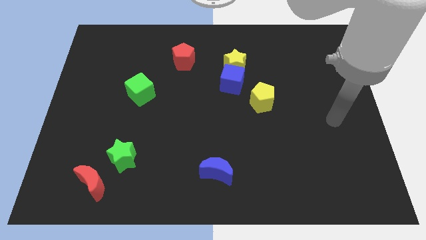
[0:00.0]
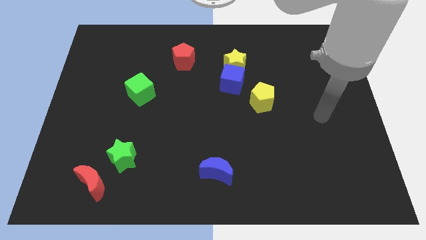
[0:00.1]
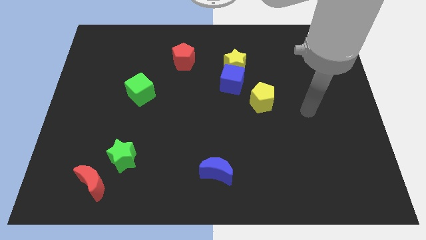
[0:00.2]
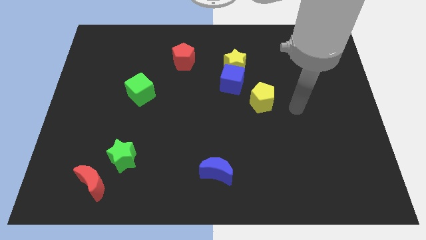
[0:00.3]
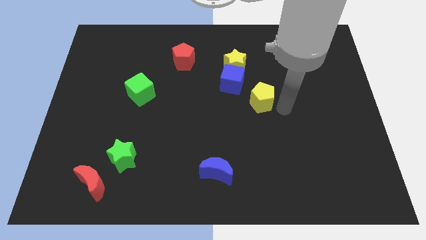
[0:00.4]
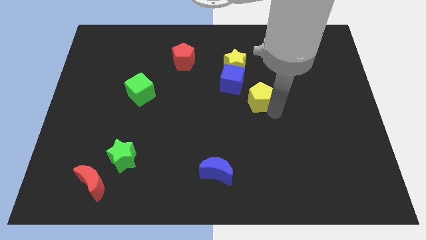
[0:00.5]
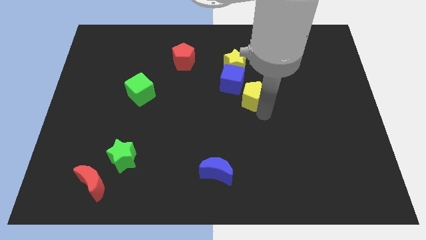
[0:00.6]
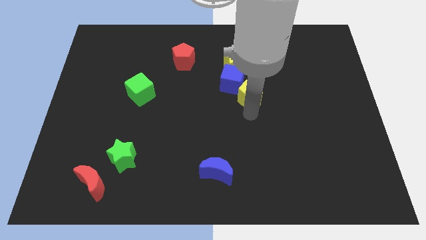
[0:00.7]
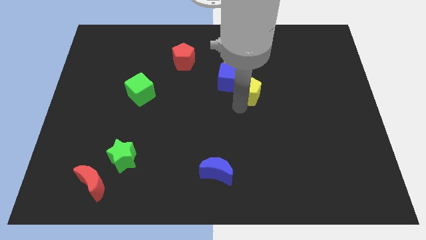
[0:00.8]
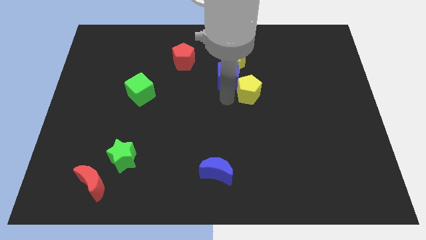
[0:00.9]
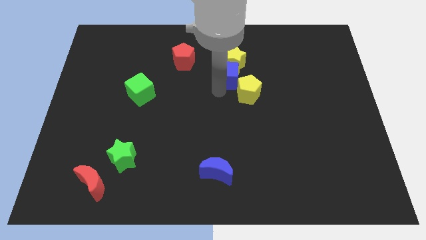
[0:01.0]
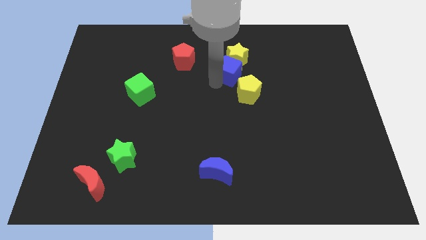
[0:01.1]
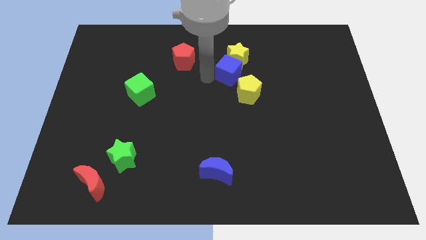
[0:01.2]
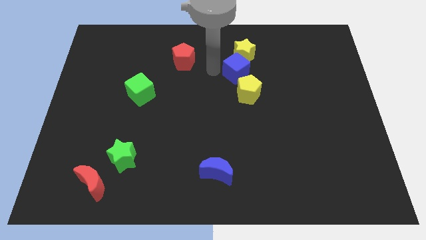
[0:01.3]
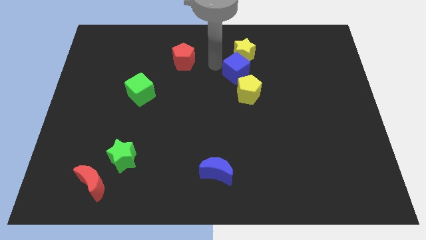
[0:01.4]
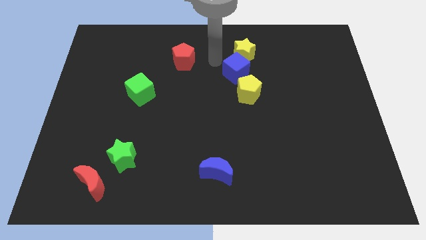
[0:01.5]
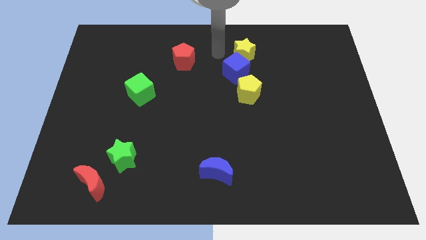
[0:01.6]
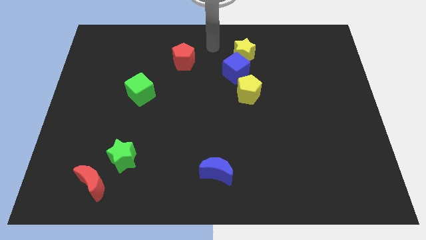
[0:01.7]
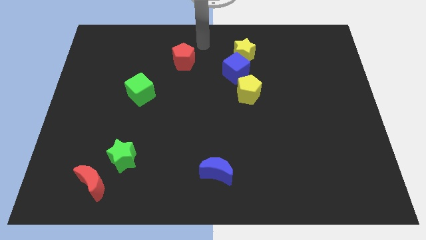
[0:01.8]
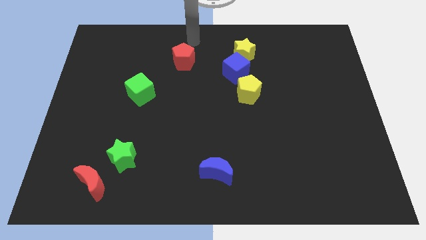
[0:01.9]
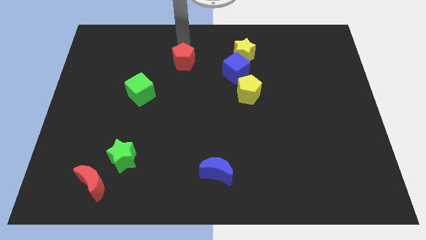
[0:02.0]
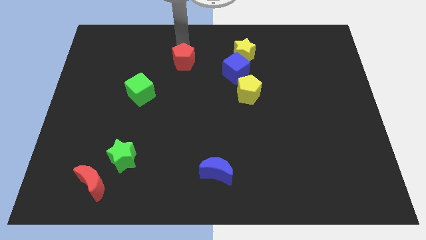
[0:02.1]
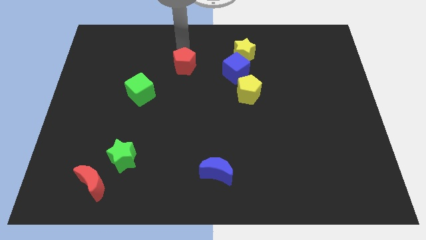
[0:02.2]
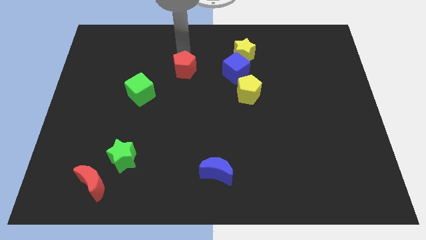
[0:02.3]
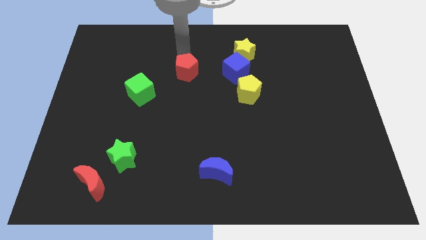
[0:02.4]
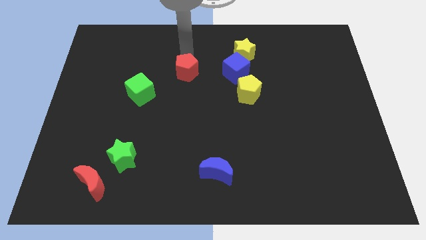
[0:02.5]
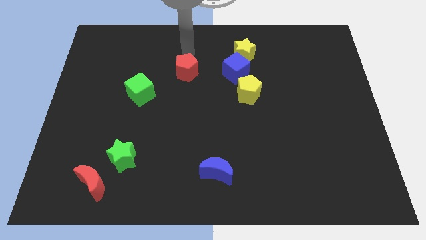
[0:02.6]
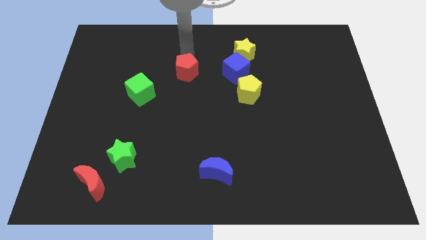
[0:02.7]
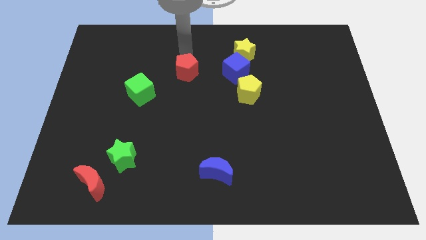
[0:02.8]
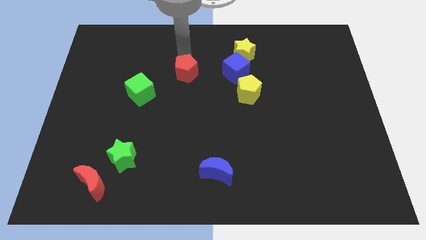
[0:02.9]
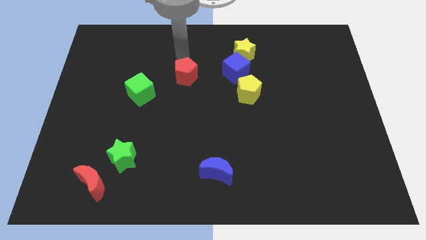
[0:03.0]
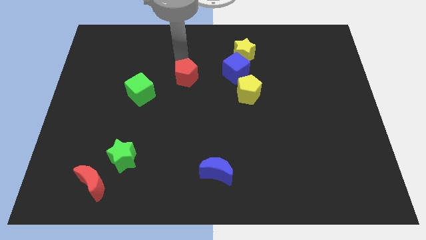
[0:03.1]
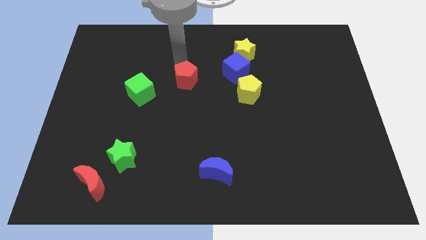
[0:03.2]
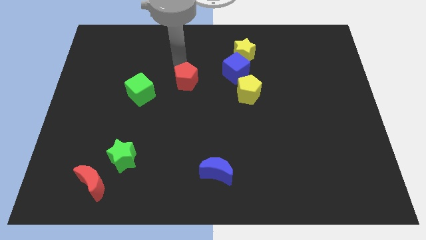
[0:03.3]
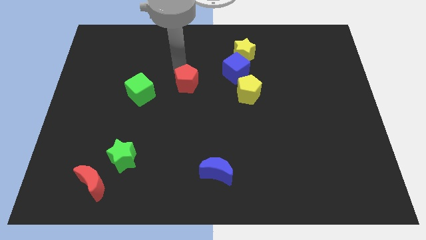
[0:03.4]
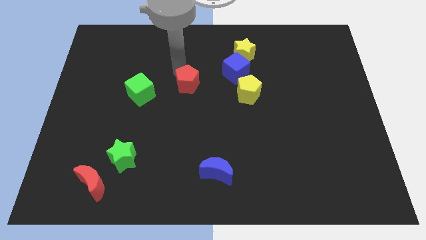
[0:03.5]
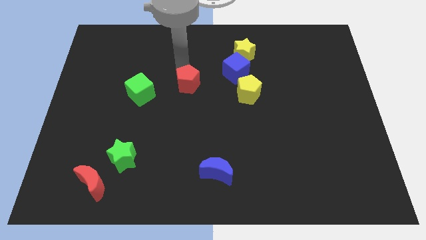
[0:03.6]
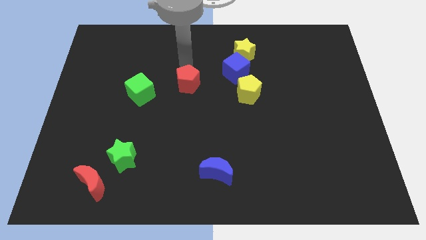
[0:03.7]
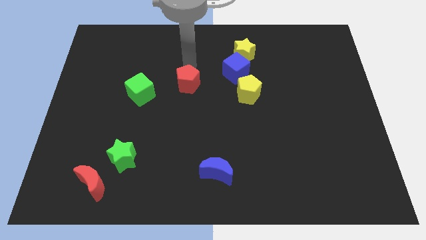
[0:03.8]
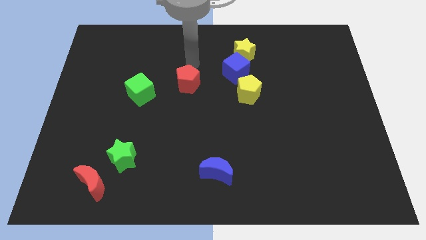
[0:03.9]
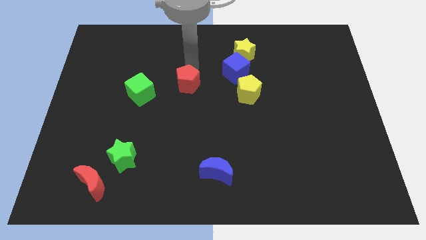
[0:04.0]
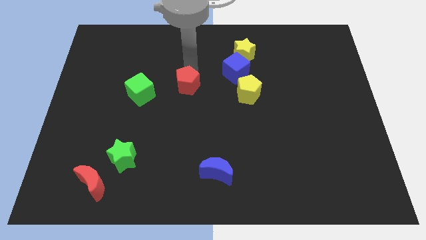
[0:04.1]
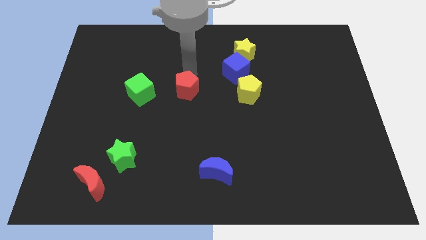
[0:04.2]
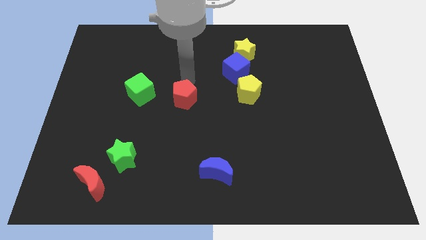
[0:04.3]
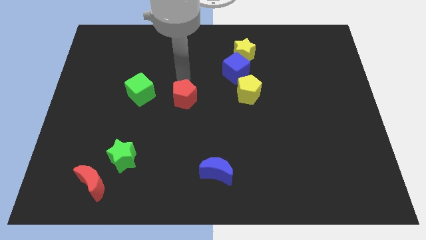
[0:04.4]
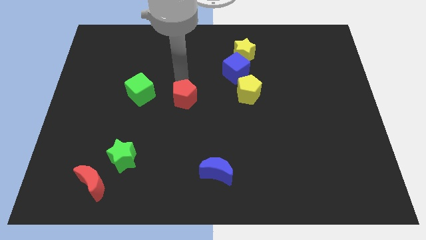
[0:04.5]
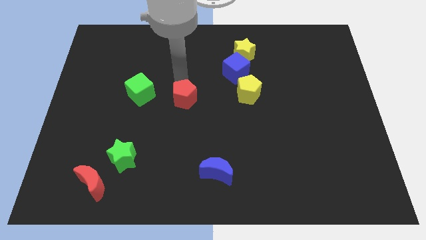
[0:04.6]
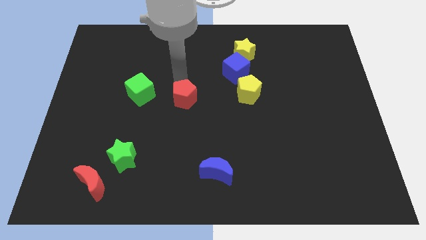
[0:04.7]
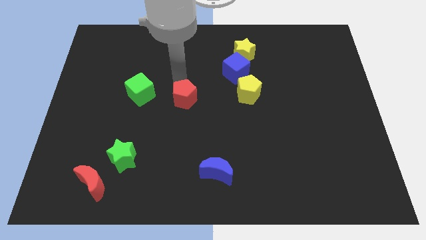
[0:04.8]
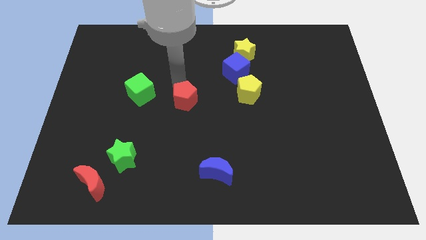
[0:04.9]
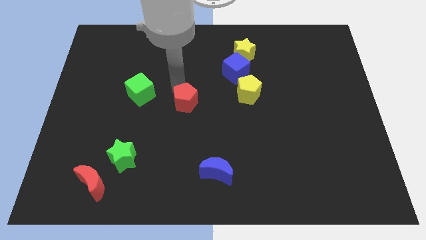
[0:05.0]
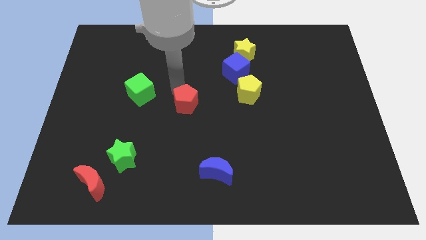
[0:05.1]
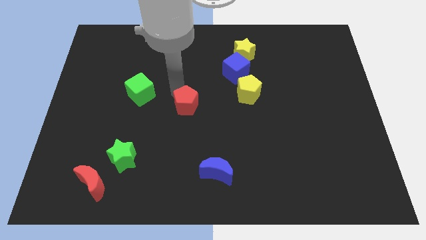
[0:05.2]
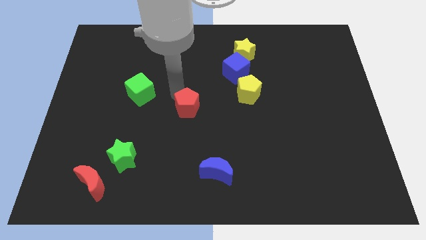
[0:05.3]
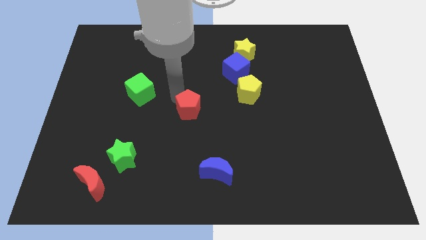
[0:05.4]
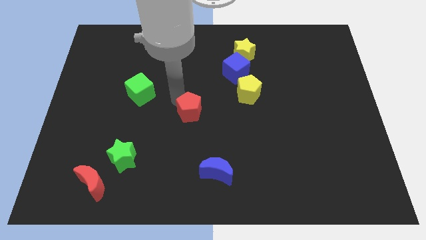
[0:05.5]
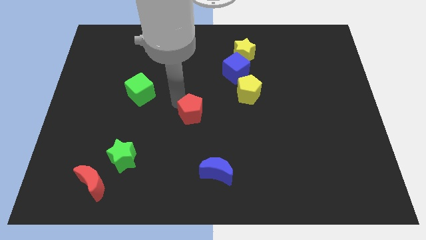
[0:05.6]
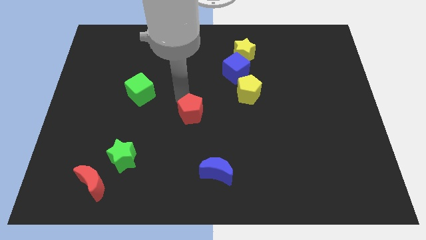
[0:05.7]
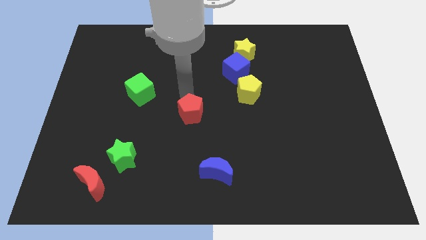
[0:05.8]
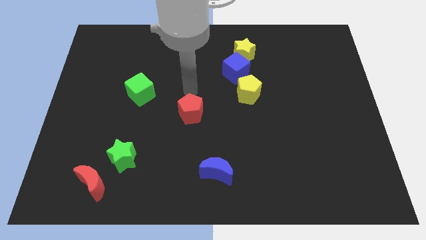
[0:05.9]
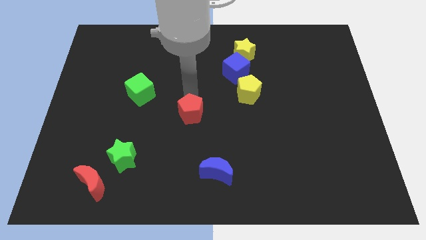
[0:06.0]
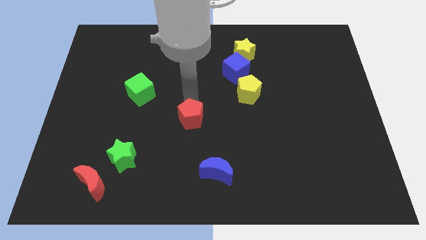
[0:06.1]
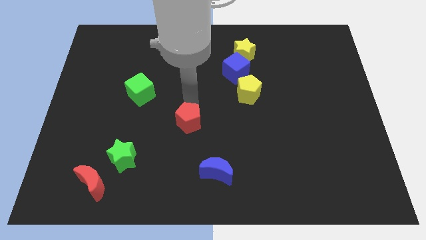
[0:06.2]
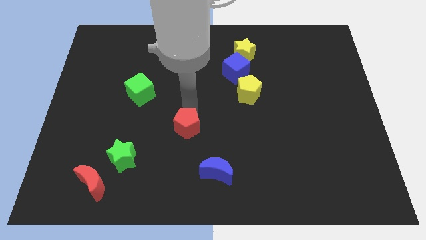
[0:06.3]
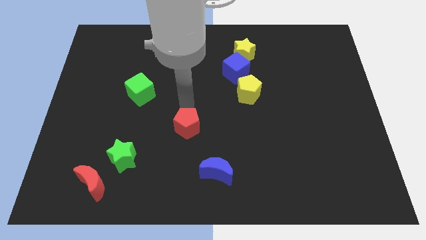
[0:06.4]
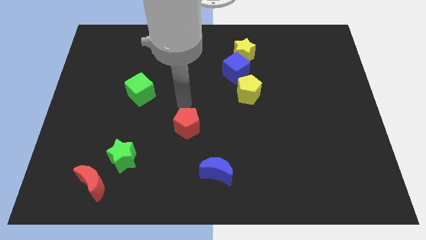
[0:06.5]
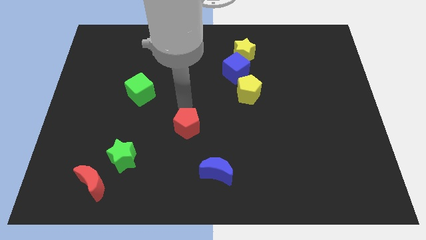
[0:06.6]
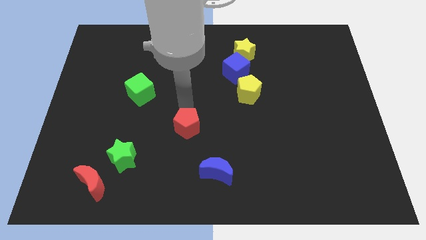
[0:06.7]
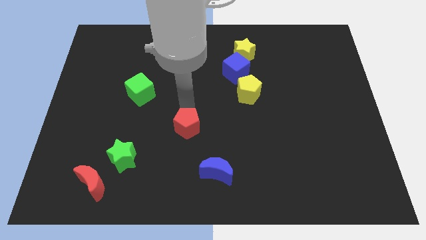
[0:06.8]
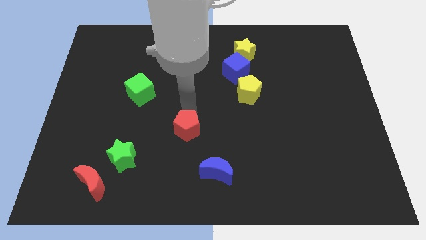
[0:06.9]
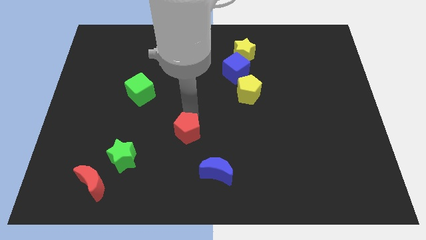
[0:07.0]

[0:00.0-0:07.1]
push the red pentagon to the top left side of the blue moon

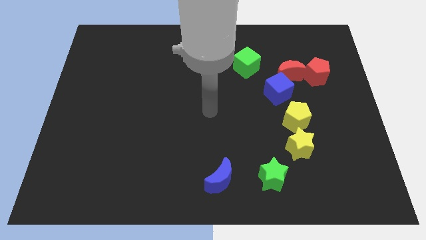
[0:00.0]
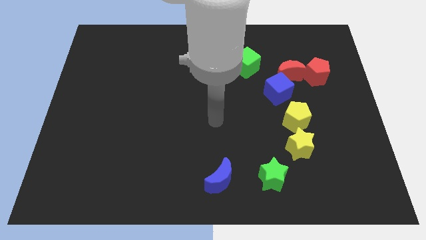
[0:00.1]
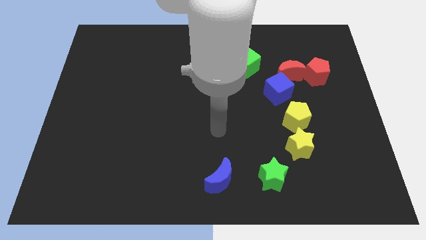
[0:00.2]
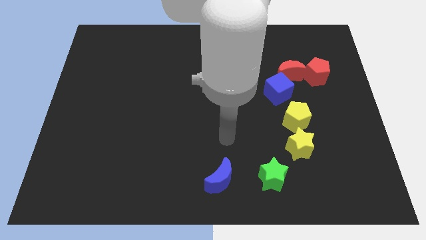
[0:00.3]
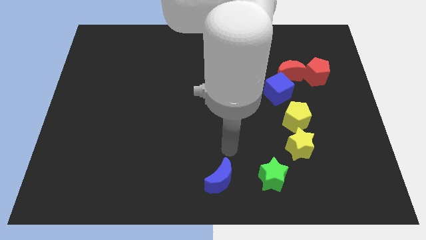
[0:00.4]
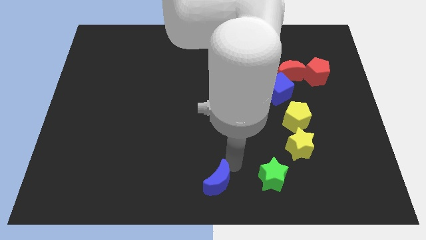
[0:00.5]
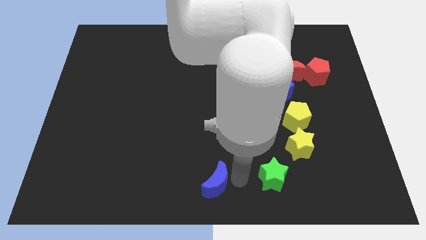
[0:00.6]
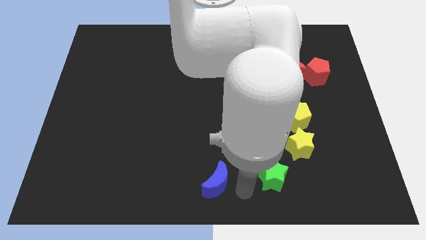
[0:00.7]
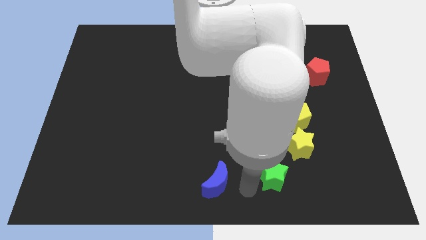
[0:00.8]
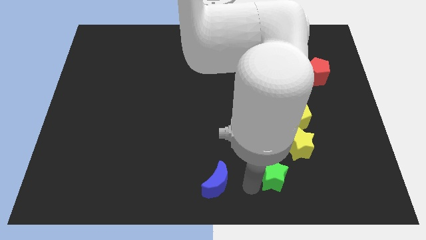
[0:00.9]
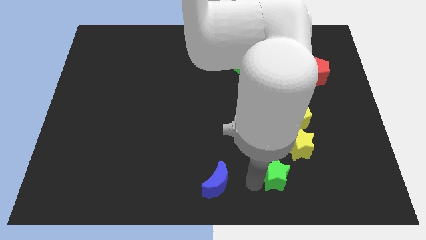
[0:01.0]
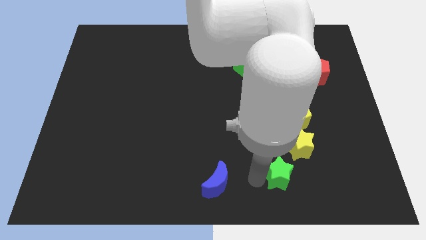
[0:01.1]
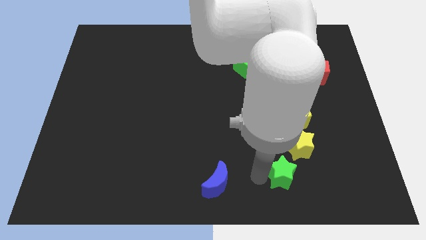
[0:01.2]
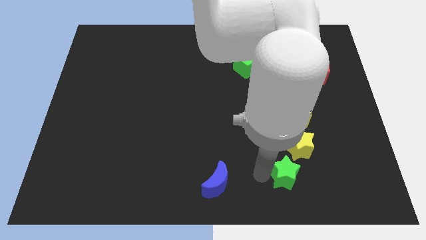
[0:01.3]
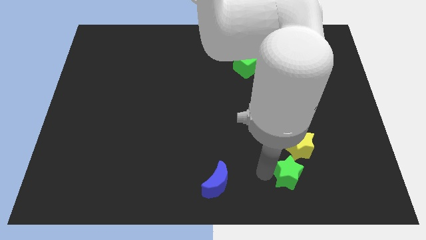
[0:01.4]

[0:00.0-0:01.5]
push the green star to the bottom of the yellow pentagon
